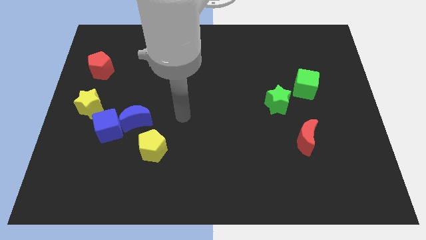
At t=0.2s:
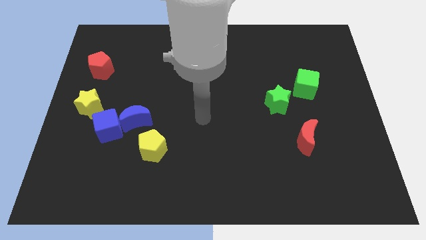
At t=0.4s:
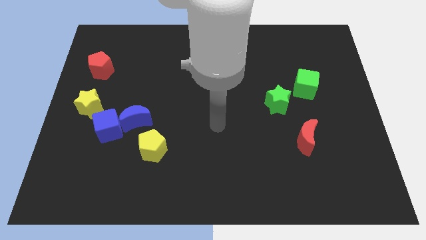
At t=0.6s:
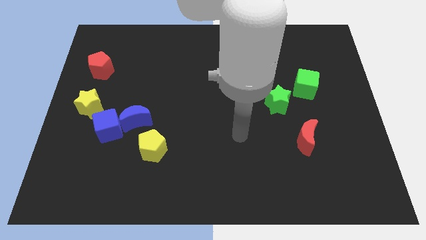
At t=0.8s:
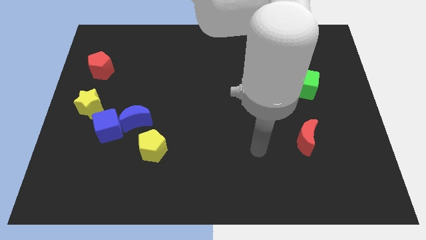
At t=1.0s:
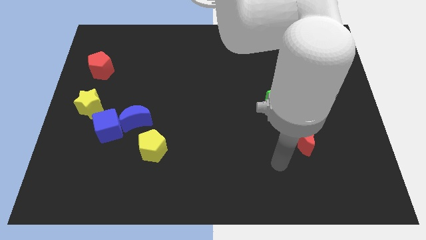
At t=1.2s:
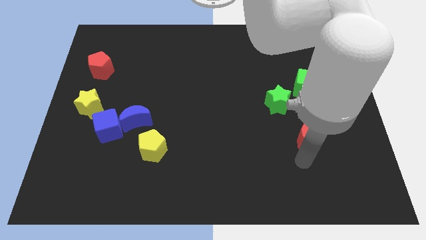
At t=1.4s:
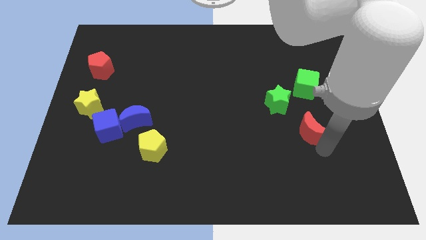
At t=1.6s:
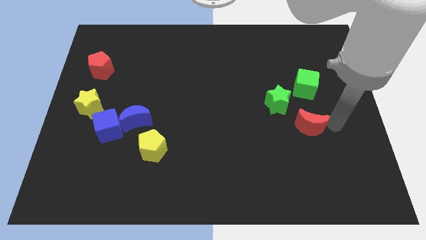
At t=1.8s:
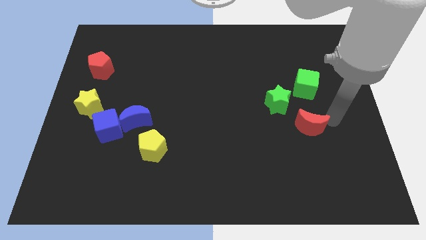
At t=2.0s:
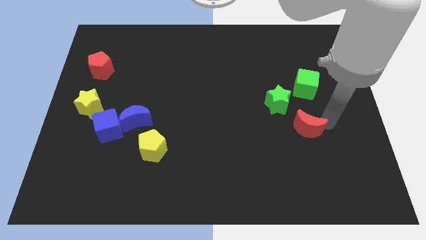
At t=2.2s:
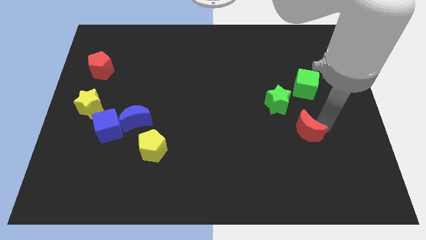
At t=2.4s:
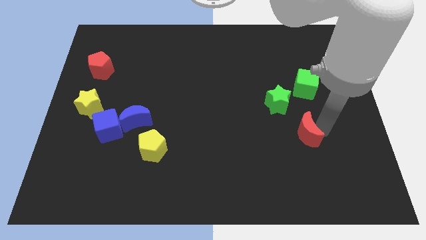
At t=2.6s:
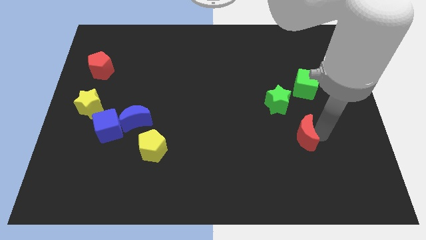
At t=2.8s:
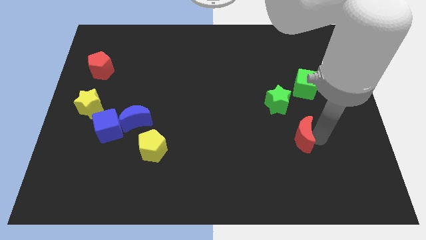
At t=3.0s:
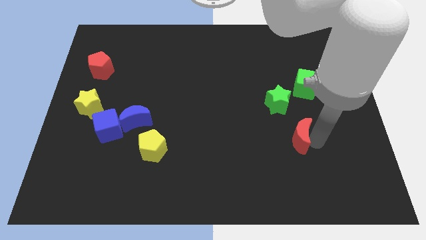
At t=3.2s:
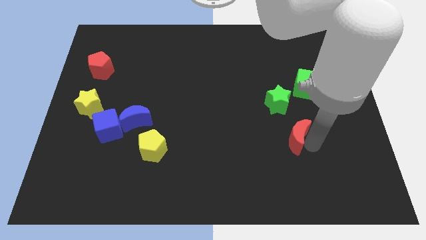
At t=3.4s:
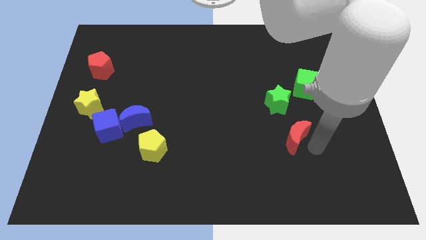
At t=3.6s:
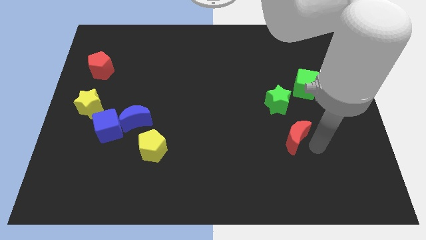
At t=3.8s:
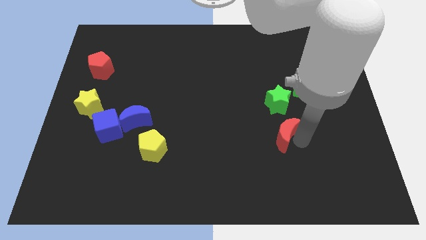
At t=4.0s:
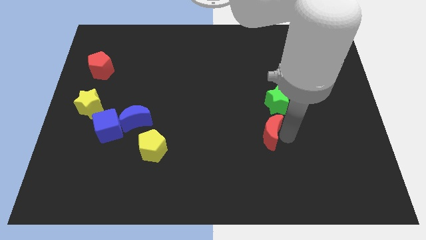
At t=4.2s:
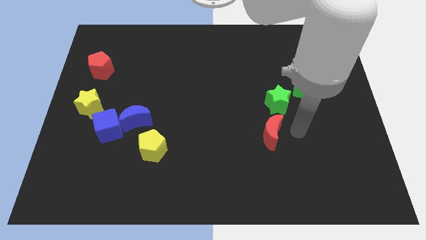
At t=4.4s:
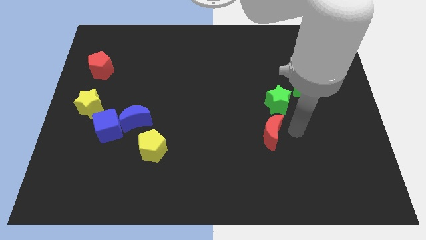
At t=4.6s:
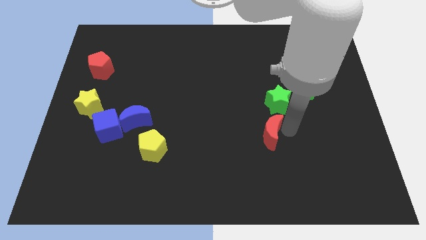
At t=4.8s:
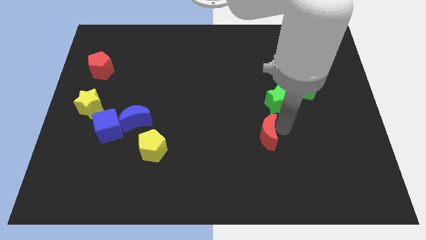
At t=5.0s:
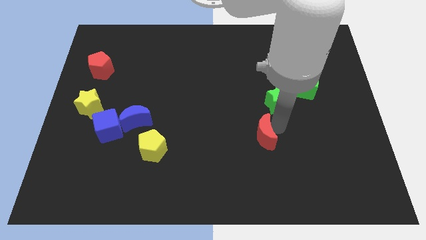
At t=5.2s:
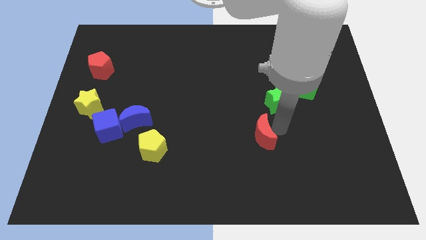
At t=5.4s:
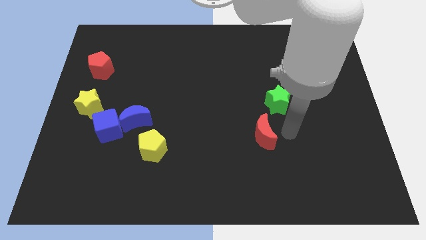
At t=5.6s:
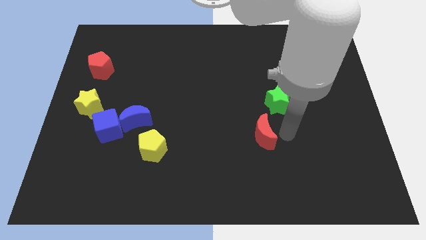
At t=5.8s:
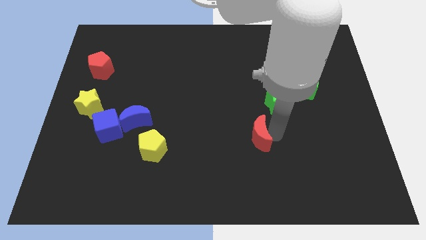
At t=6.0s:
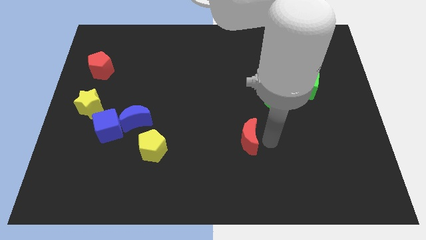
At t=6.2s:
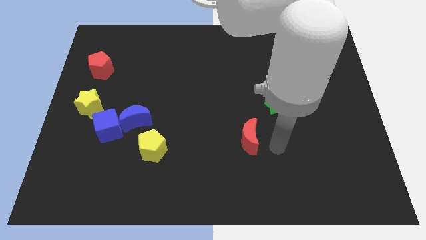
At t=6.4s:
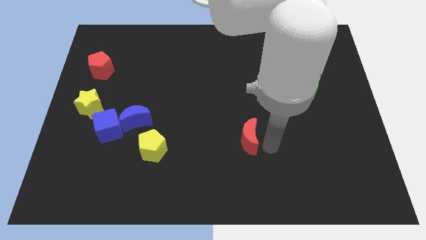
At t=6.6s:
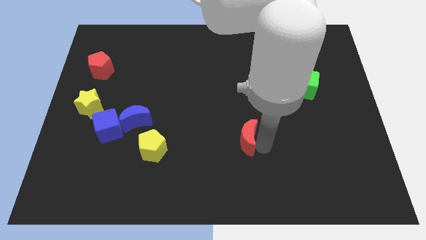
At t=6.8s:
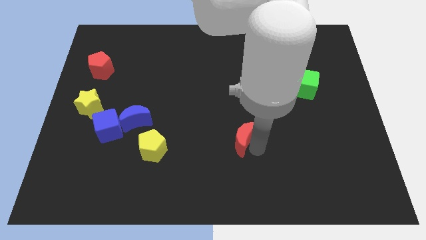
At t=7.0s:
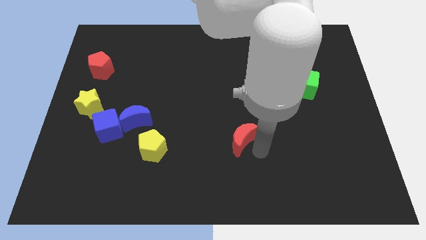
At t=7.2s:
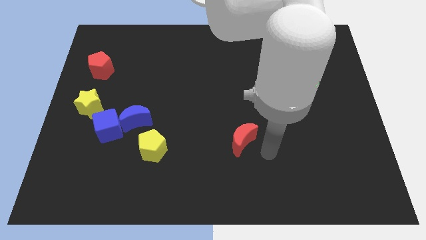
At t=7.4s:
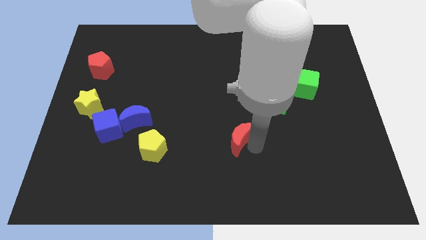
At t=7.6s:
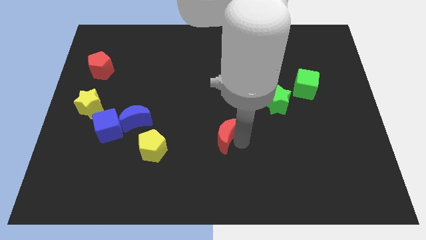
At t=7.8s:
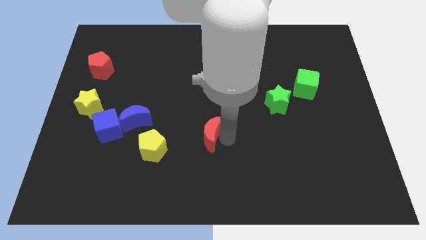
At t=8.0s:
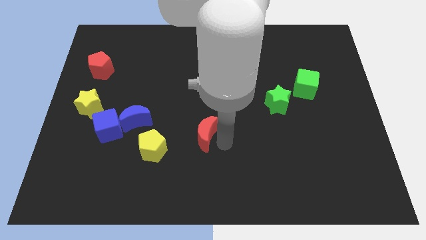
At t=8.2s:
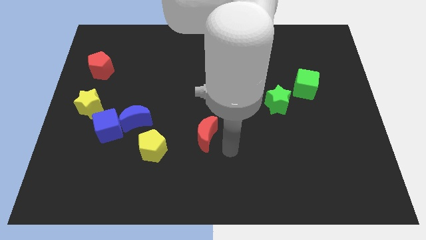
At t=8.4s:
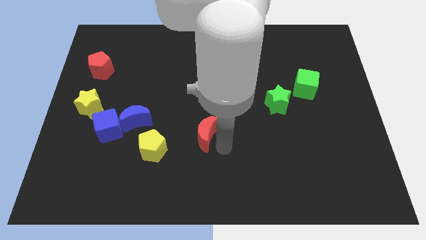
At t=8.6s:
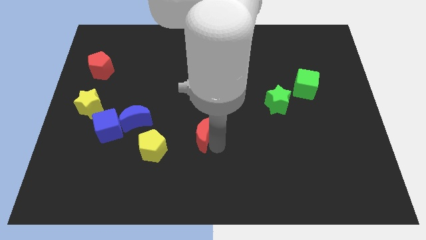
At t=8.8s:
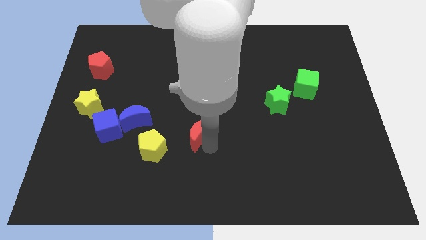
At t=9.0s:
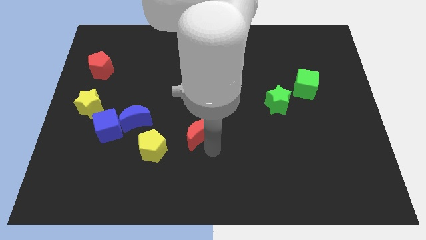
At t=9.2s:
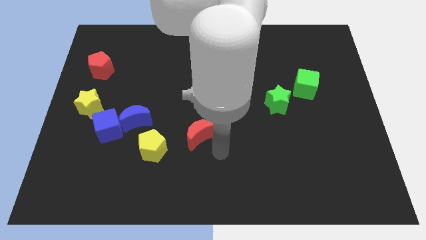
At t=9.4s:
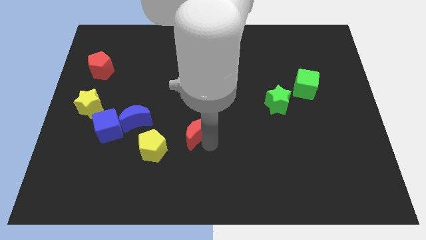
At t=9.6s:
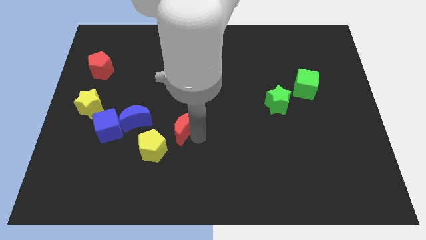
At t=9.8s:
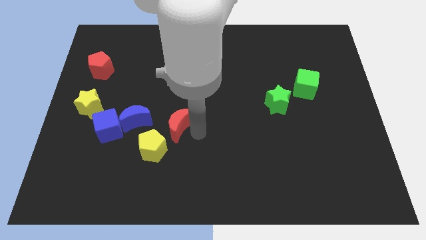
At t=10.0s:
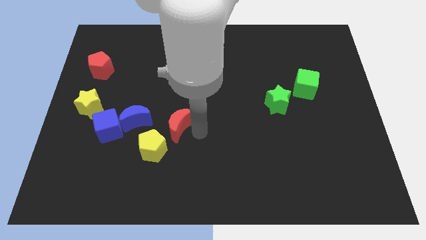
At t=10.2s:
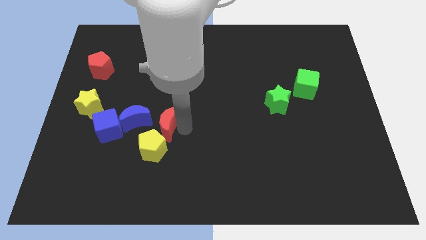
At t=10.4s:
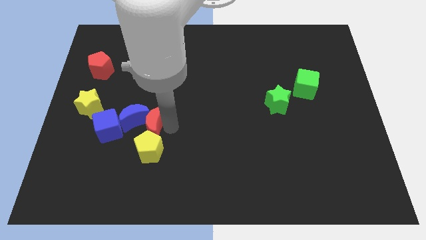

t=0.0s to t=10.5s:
put the red moon towards the blue moon

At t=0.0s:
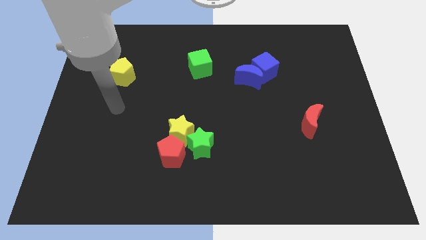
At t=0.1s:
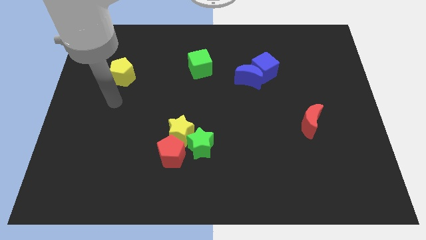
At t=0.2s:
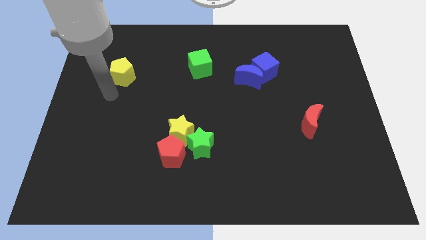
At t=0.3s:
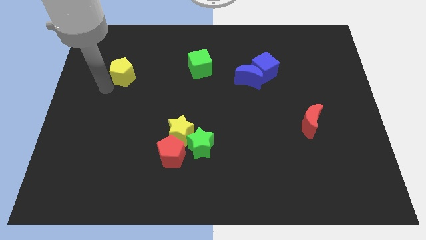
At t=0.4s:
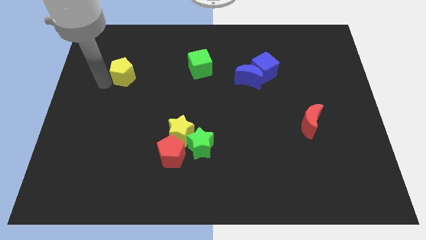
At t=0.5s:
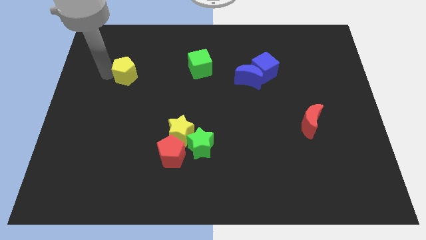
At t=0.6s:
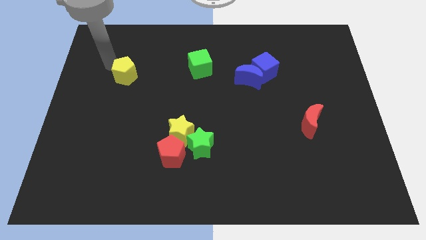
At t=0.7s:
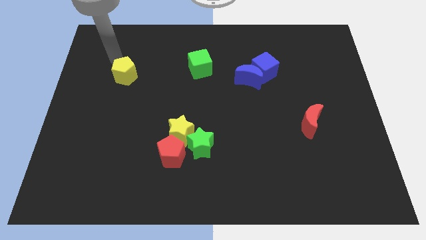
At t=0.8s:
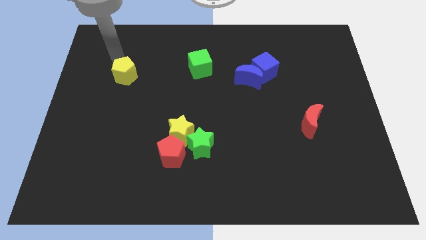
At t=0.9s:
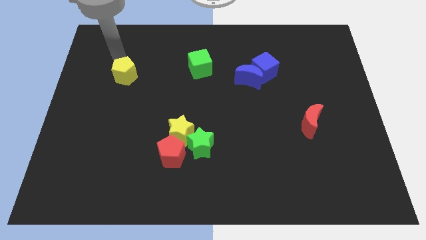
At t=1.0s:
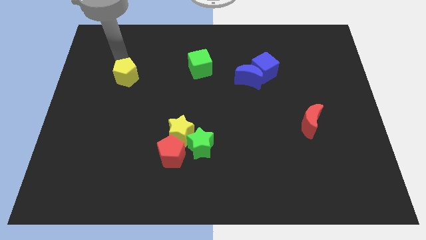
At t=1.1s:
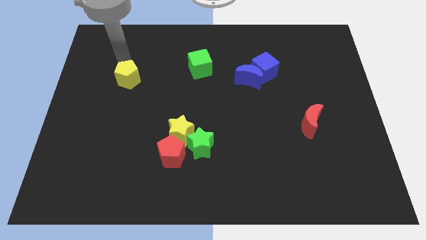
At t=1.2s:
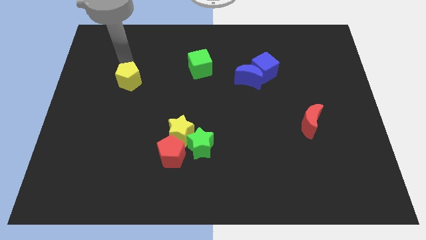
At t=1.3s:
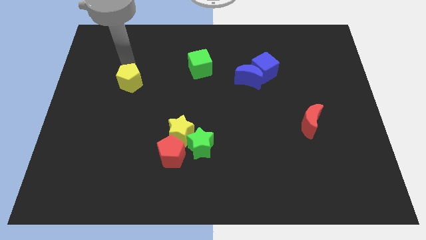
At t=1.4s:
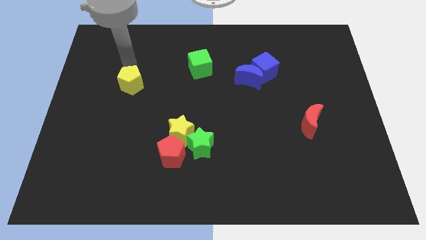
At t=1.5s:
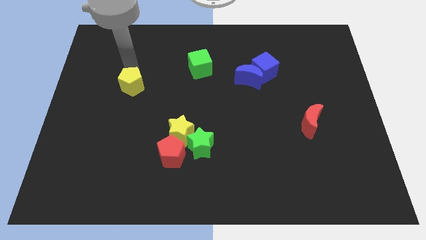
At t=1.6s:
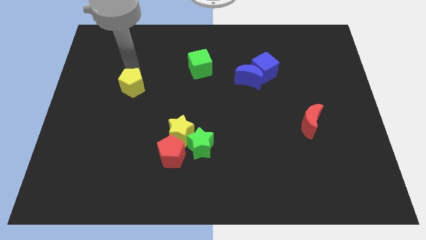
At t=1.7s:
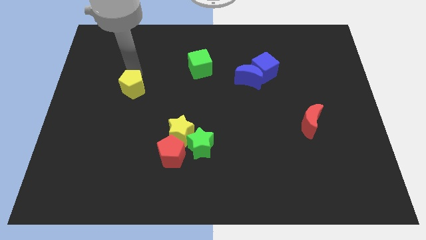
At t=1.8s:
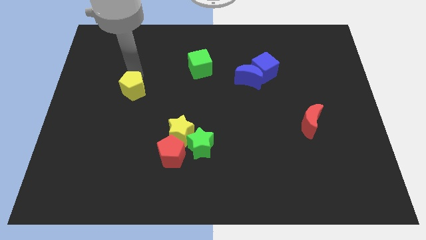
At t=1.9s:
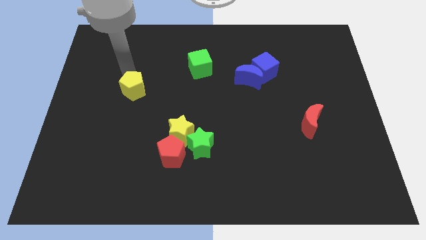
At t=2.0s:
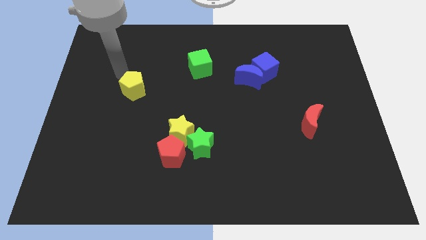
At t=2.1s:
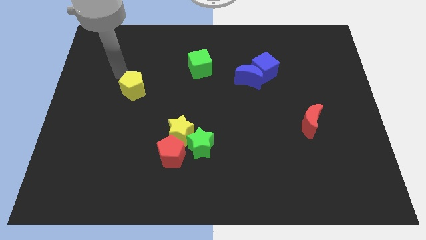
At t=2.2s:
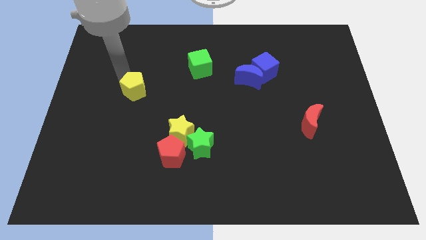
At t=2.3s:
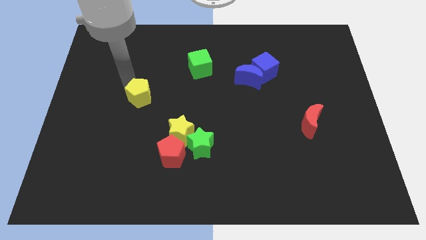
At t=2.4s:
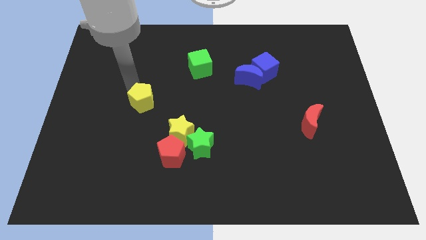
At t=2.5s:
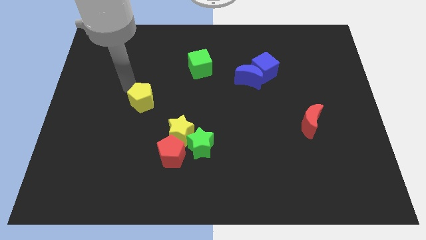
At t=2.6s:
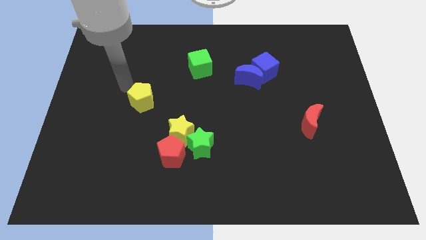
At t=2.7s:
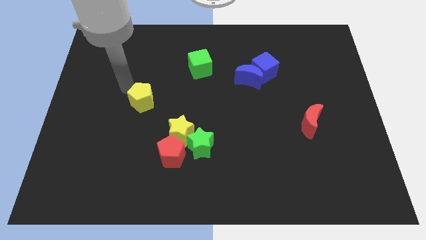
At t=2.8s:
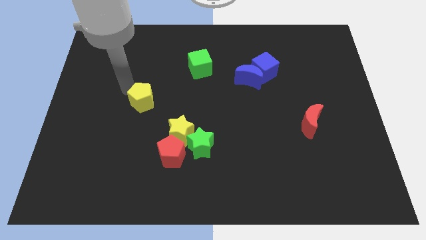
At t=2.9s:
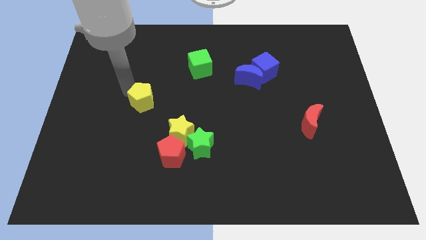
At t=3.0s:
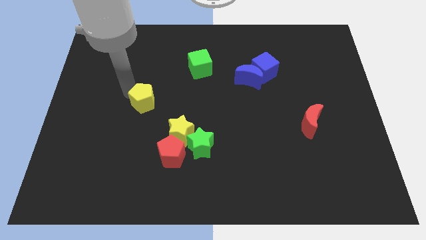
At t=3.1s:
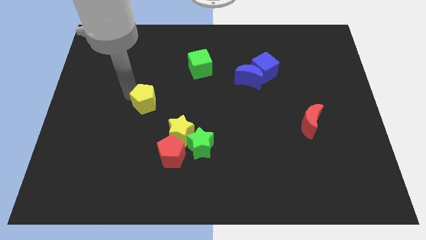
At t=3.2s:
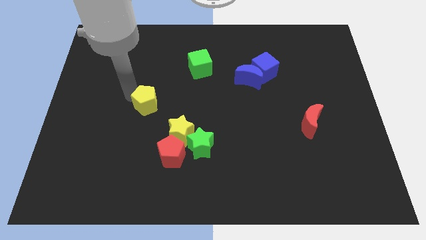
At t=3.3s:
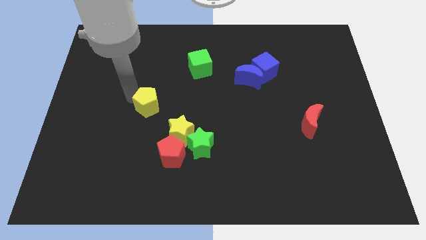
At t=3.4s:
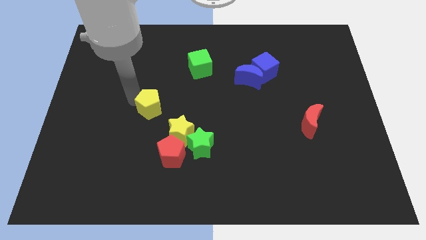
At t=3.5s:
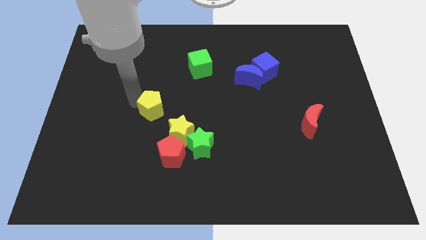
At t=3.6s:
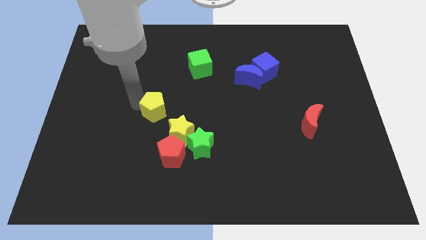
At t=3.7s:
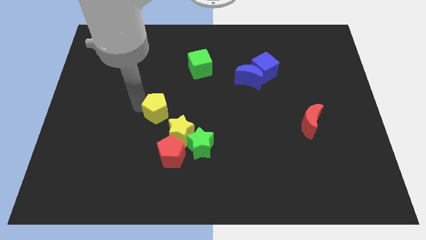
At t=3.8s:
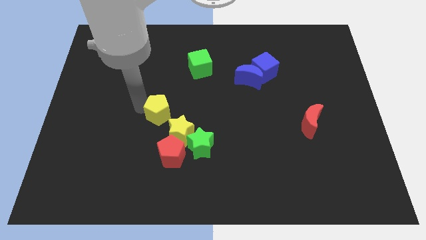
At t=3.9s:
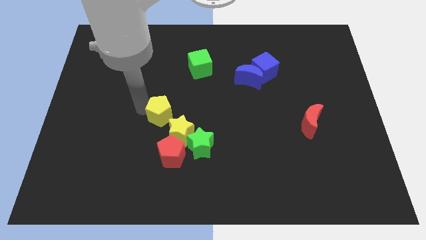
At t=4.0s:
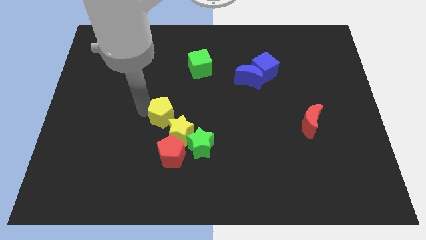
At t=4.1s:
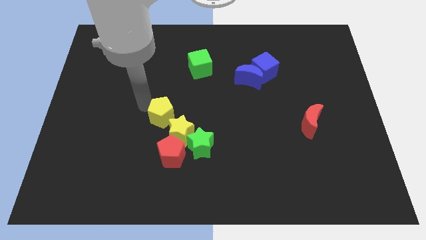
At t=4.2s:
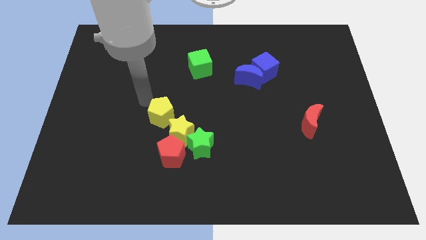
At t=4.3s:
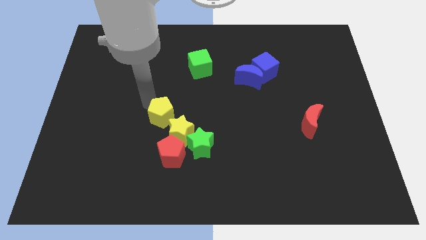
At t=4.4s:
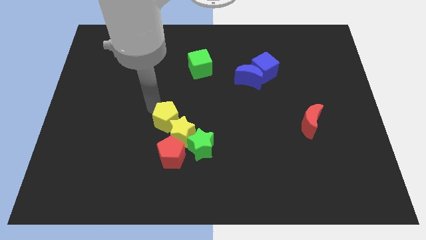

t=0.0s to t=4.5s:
move the yellow pentagon to the yellow star
